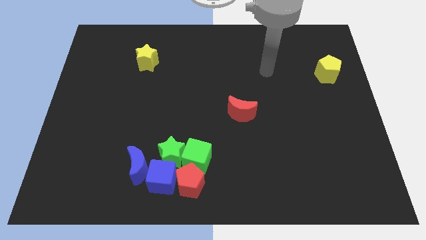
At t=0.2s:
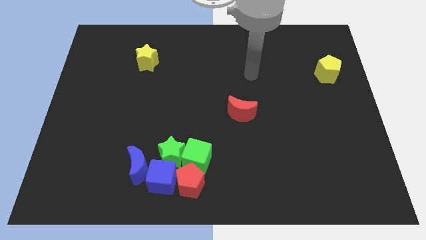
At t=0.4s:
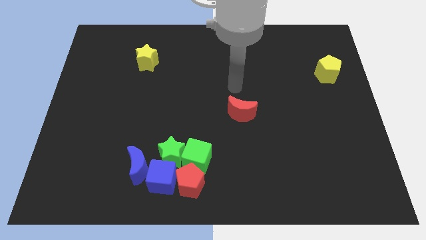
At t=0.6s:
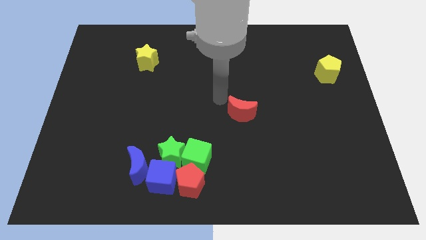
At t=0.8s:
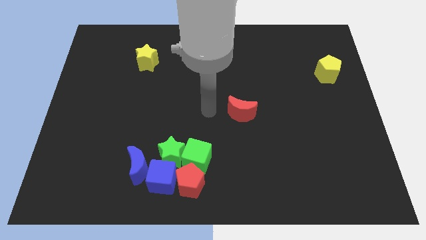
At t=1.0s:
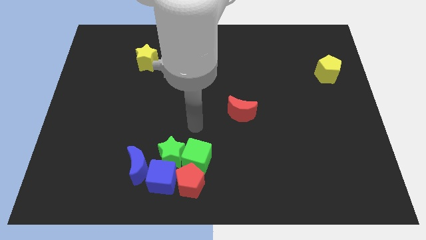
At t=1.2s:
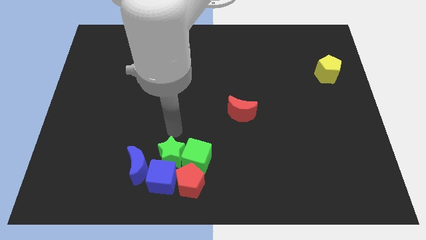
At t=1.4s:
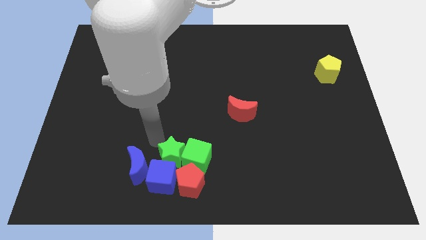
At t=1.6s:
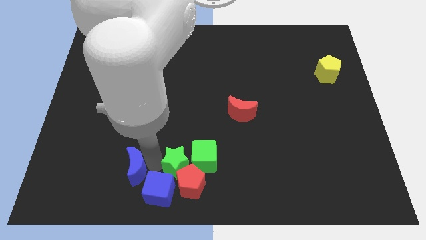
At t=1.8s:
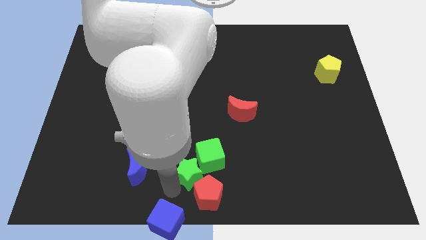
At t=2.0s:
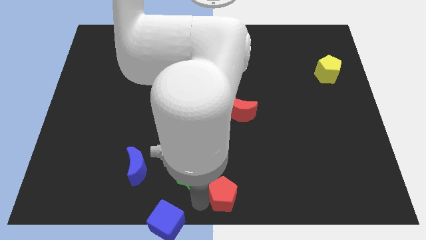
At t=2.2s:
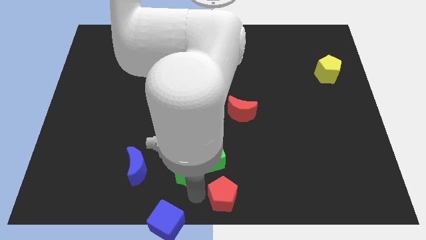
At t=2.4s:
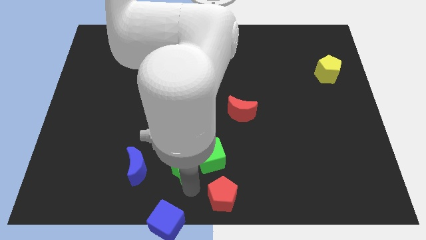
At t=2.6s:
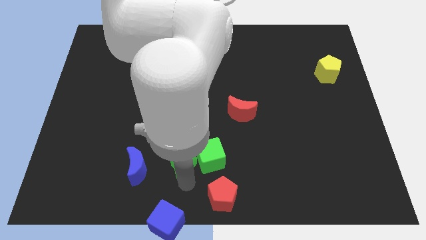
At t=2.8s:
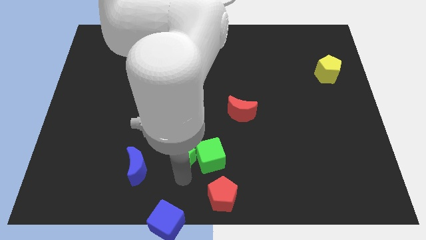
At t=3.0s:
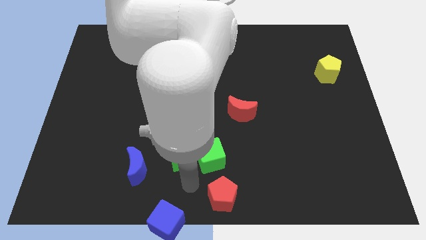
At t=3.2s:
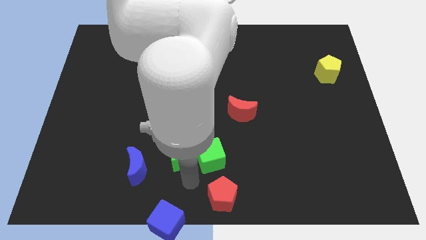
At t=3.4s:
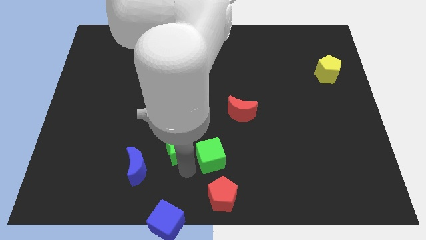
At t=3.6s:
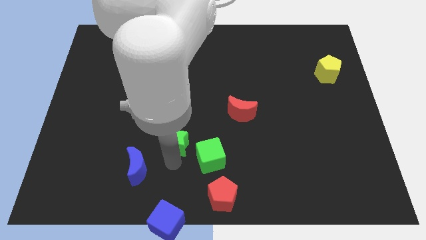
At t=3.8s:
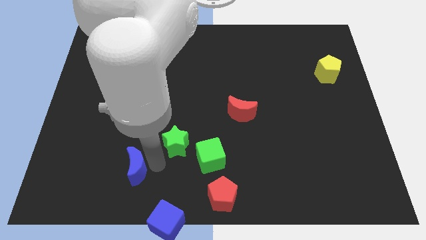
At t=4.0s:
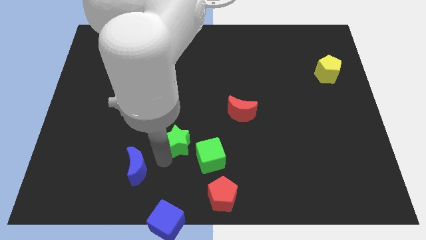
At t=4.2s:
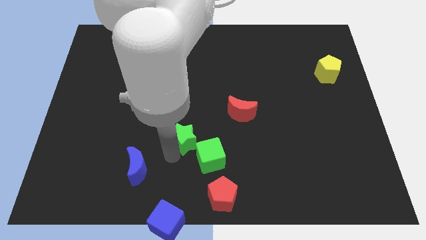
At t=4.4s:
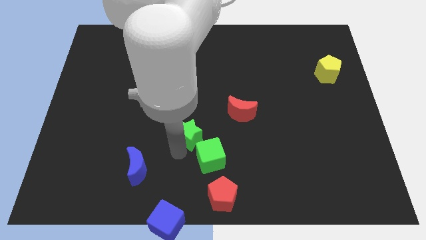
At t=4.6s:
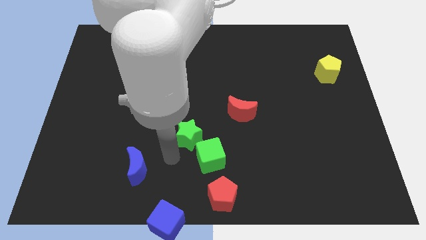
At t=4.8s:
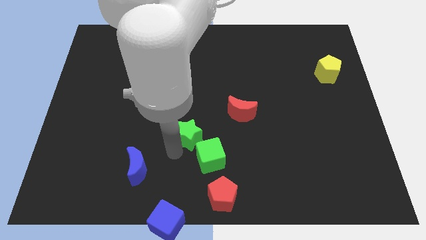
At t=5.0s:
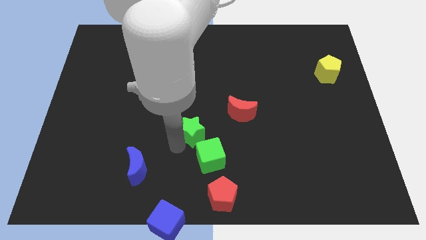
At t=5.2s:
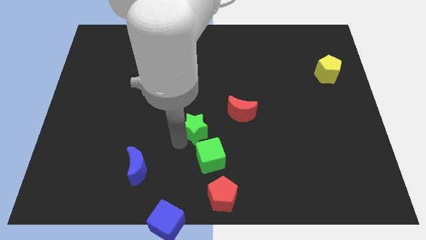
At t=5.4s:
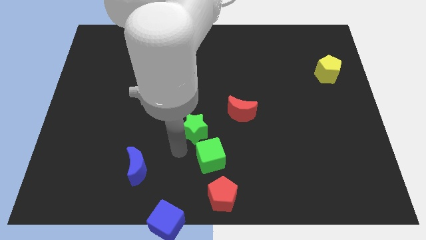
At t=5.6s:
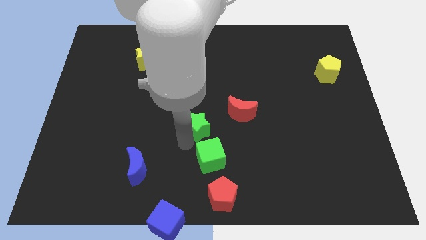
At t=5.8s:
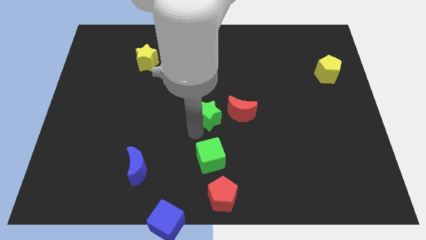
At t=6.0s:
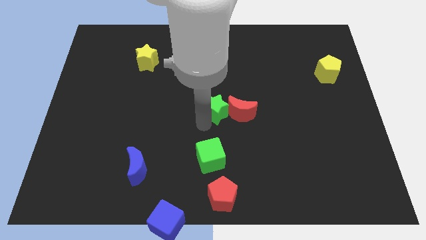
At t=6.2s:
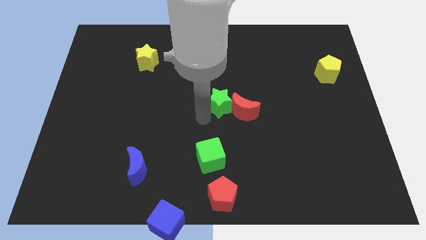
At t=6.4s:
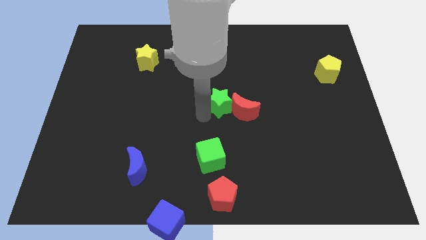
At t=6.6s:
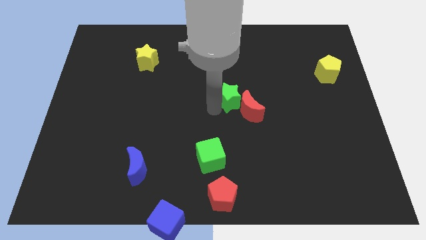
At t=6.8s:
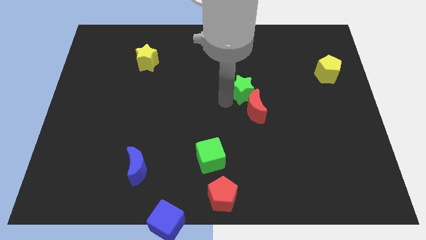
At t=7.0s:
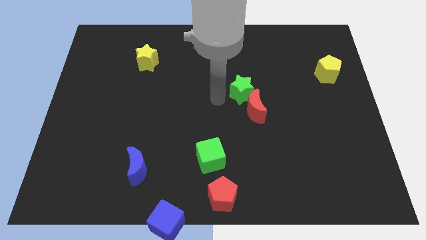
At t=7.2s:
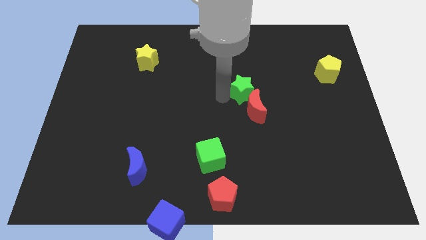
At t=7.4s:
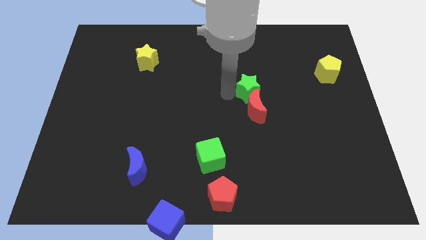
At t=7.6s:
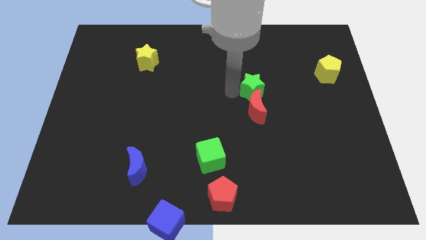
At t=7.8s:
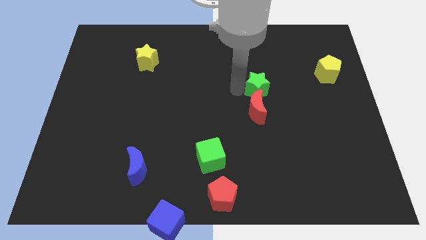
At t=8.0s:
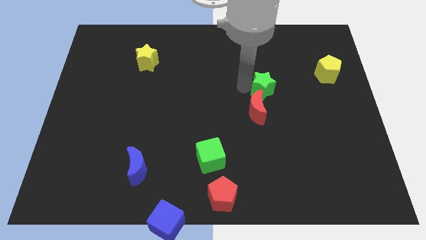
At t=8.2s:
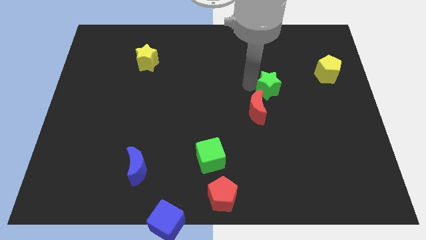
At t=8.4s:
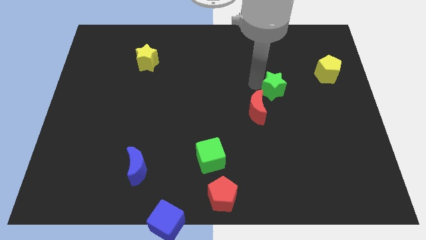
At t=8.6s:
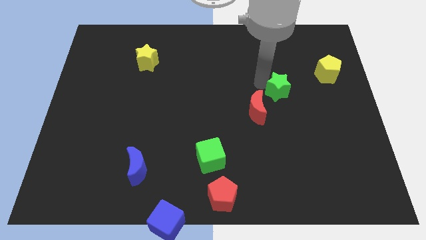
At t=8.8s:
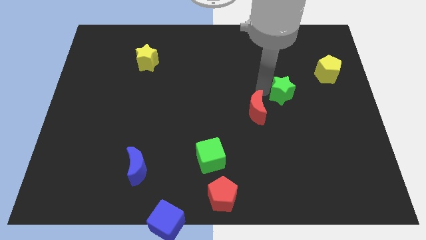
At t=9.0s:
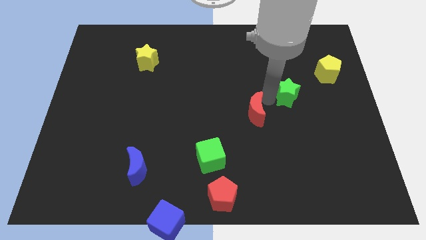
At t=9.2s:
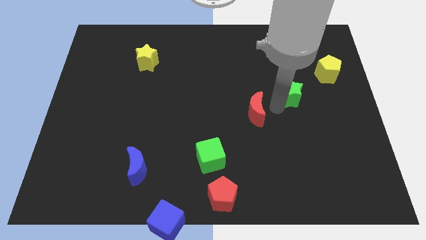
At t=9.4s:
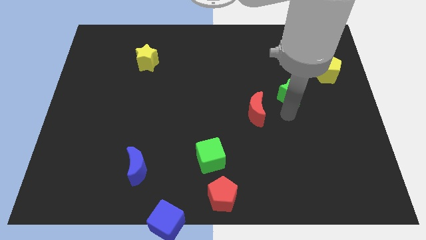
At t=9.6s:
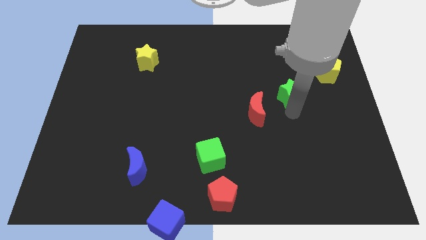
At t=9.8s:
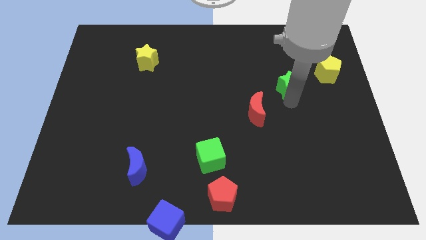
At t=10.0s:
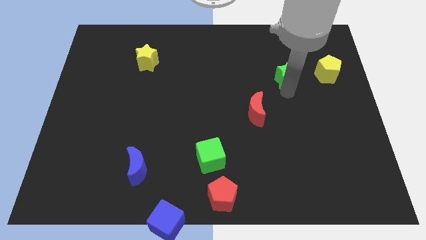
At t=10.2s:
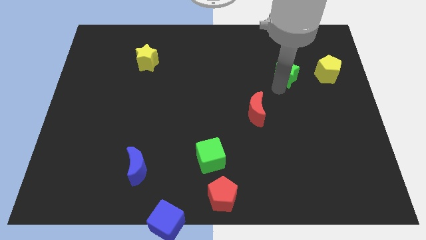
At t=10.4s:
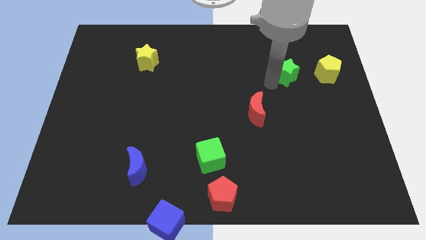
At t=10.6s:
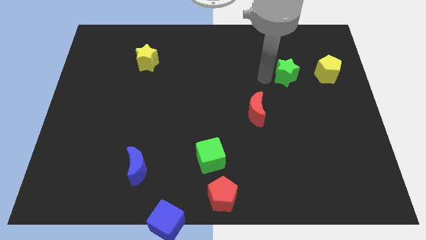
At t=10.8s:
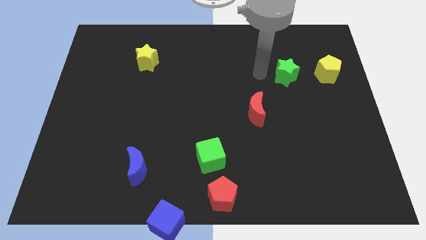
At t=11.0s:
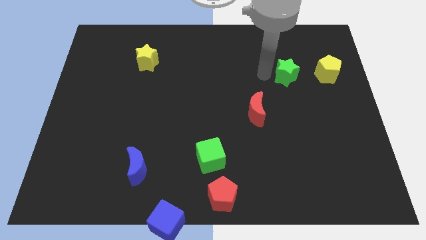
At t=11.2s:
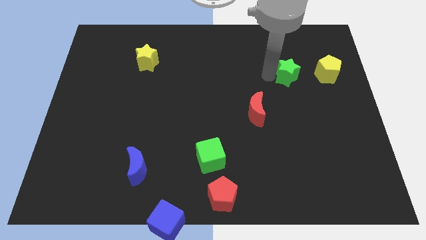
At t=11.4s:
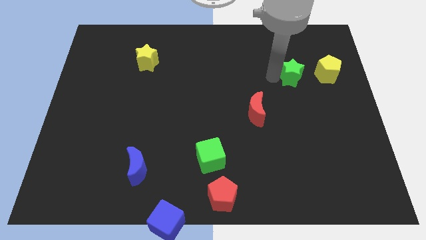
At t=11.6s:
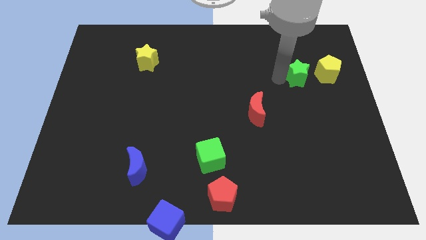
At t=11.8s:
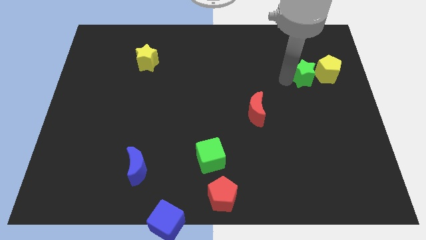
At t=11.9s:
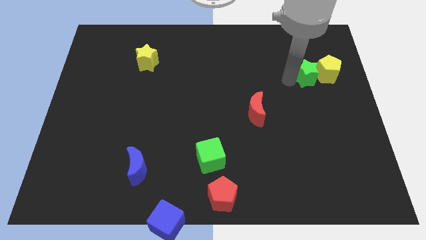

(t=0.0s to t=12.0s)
move the green star close to the yellow pentagon

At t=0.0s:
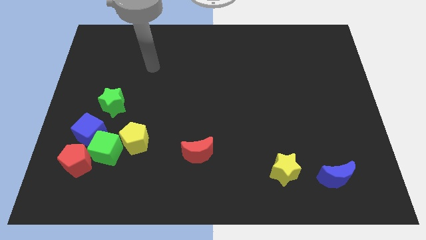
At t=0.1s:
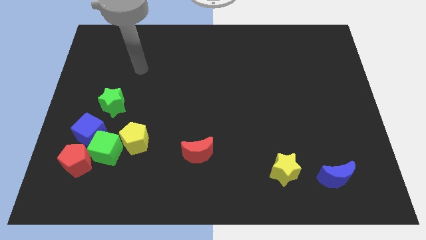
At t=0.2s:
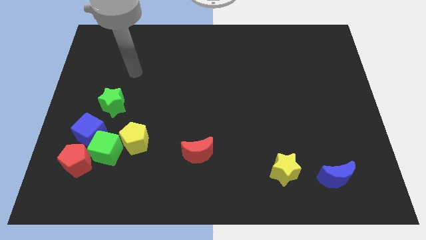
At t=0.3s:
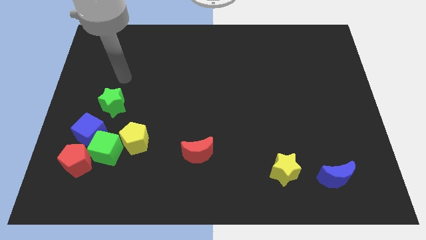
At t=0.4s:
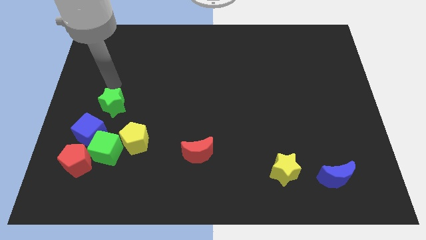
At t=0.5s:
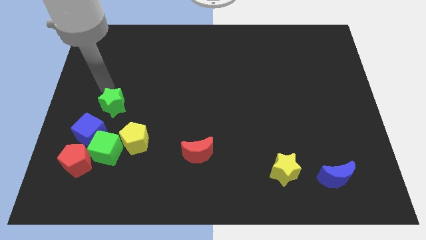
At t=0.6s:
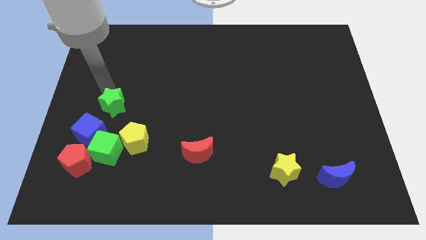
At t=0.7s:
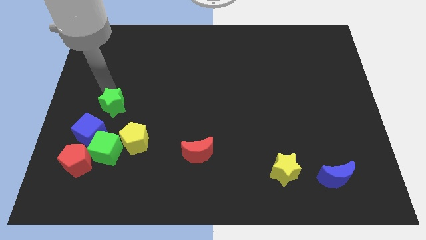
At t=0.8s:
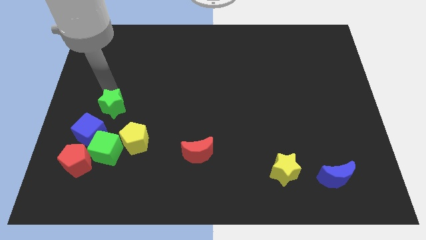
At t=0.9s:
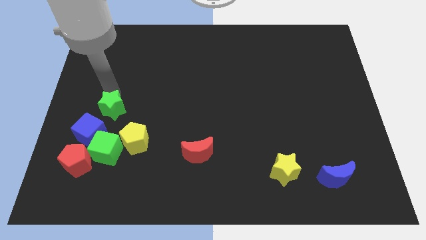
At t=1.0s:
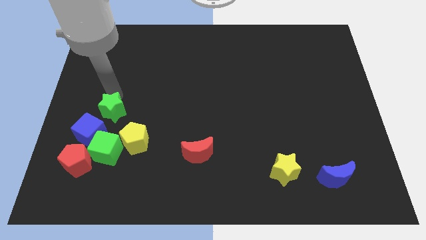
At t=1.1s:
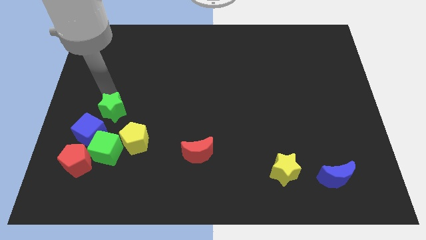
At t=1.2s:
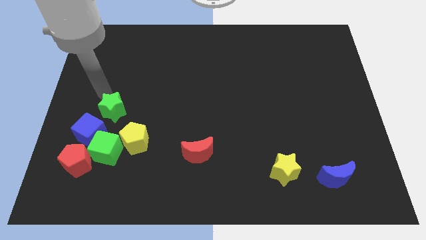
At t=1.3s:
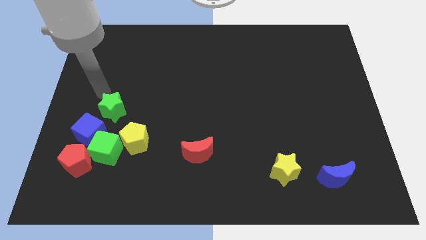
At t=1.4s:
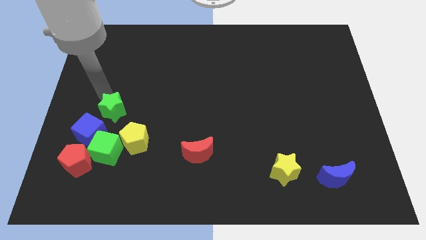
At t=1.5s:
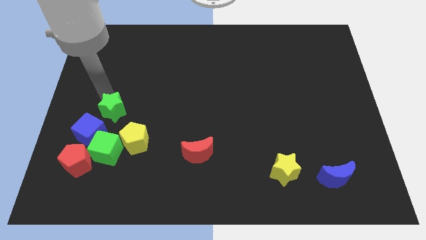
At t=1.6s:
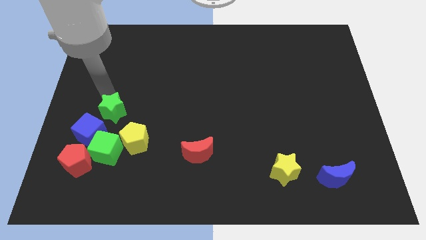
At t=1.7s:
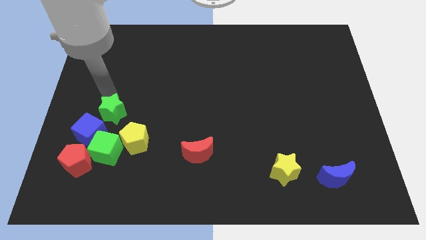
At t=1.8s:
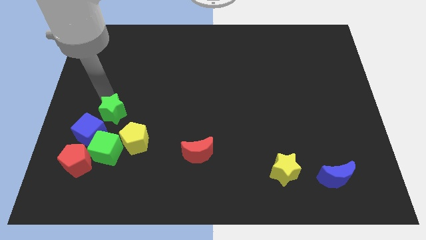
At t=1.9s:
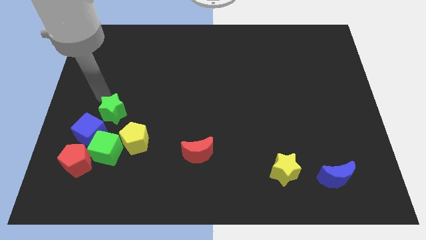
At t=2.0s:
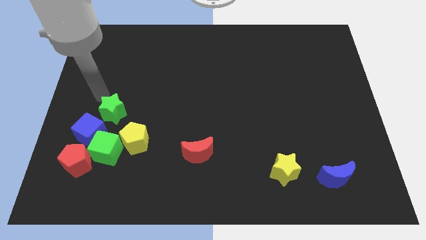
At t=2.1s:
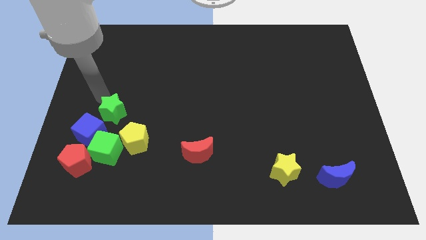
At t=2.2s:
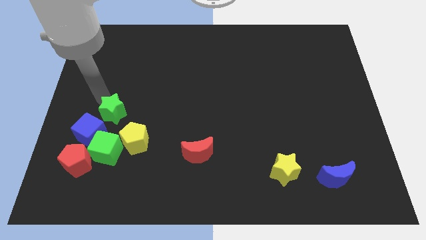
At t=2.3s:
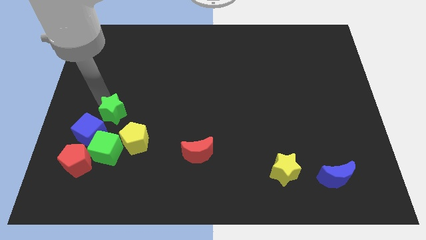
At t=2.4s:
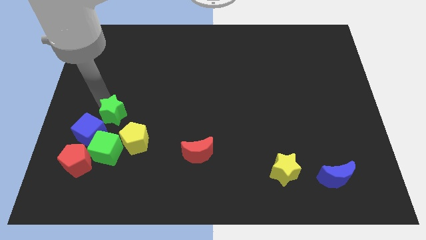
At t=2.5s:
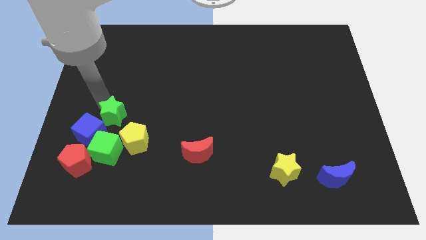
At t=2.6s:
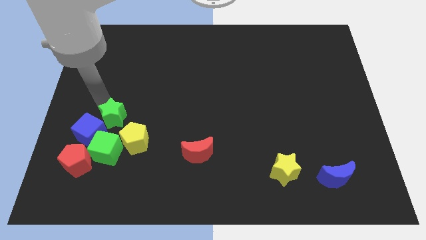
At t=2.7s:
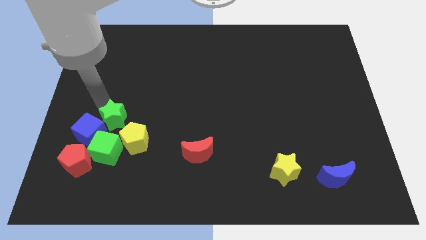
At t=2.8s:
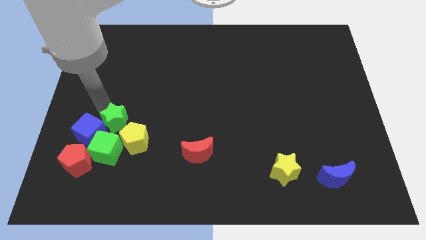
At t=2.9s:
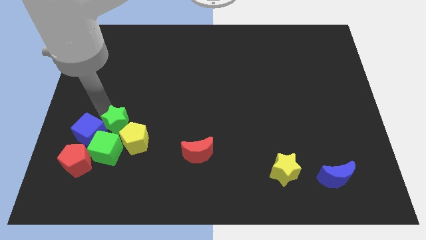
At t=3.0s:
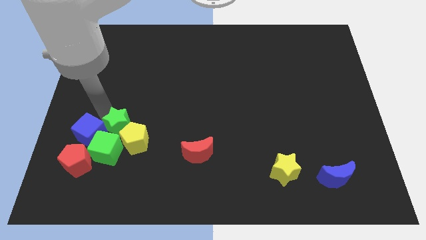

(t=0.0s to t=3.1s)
put the green star next to the yellow pentagon
